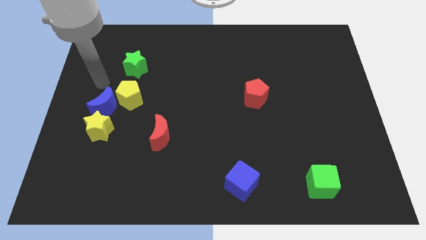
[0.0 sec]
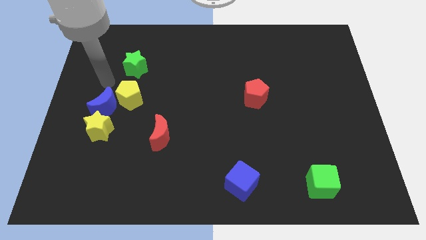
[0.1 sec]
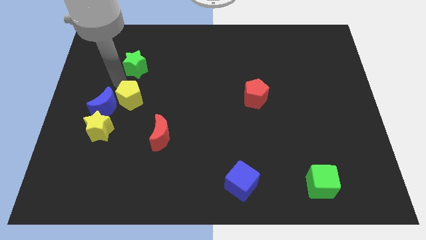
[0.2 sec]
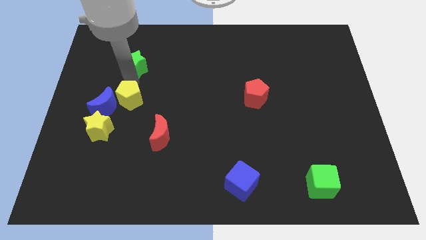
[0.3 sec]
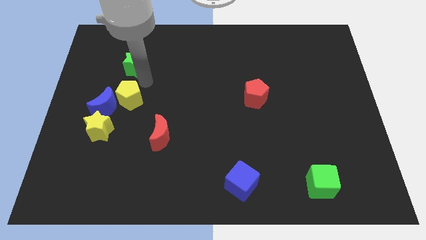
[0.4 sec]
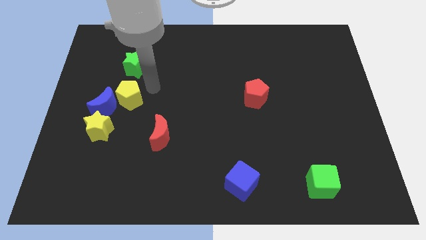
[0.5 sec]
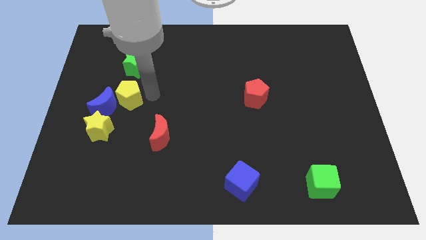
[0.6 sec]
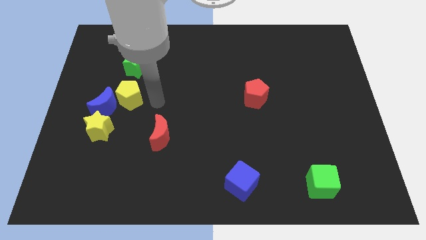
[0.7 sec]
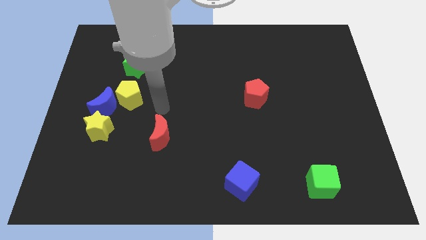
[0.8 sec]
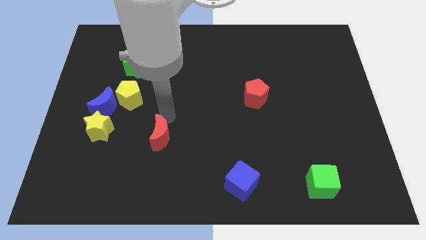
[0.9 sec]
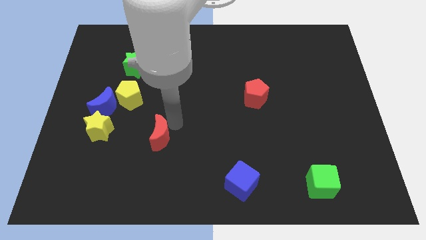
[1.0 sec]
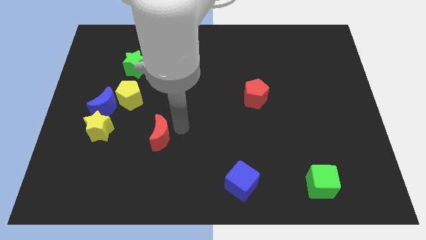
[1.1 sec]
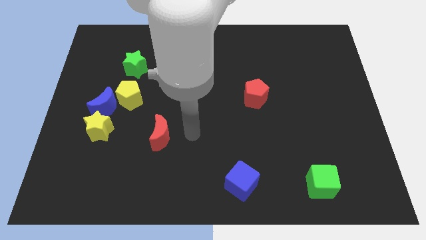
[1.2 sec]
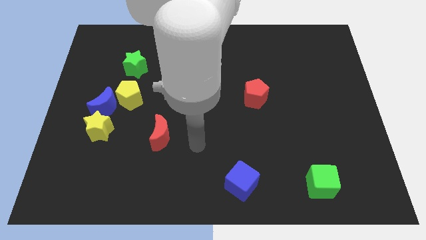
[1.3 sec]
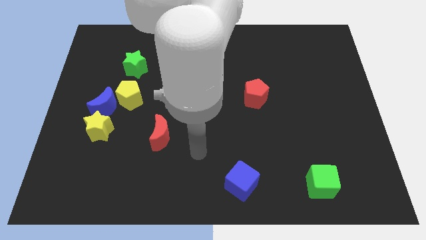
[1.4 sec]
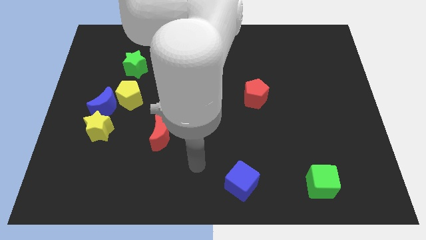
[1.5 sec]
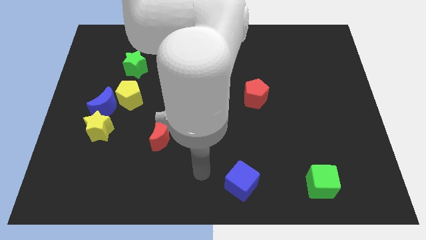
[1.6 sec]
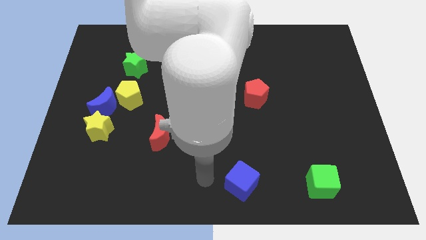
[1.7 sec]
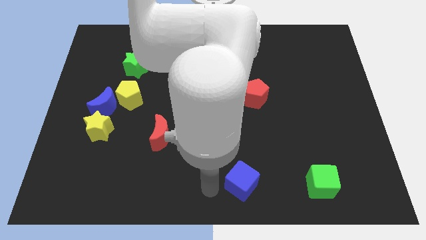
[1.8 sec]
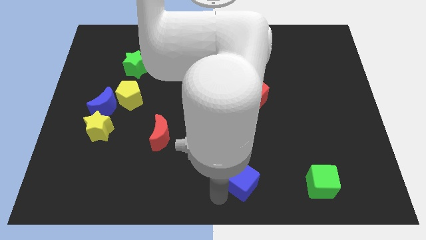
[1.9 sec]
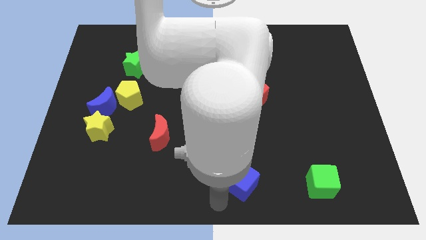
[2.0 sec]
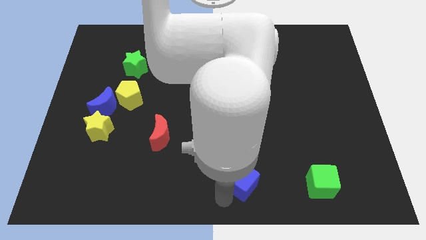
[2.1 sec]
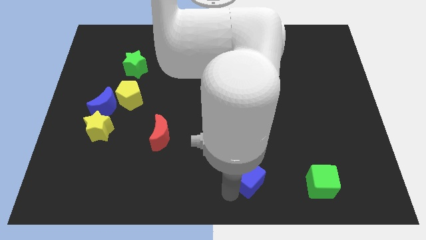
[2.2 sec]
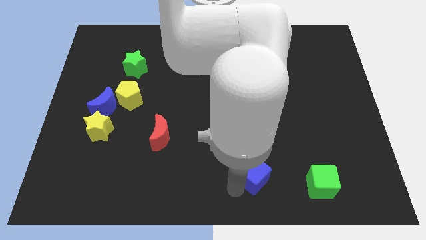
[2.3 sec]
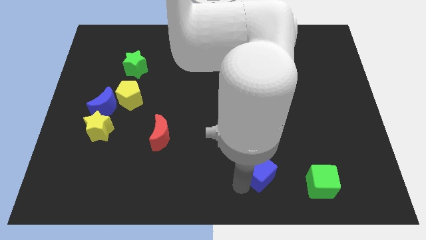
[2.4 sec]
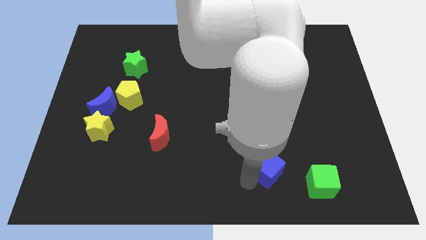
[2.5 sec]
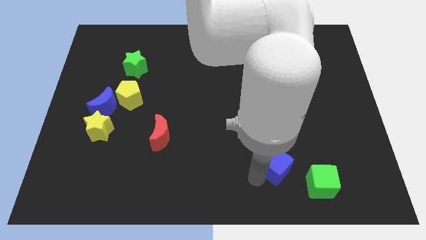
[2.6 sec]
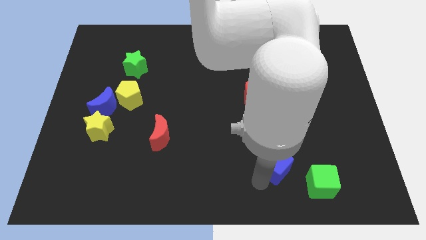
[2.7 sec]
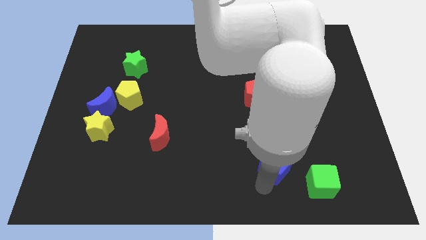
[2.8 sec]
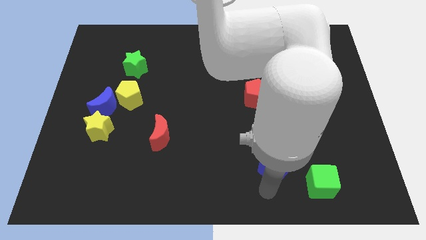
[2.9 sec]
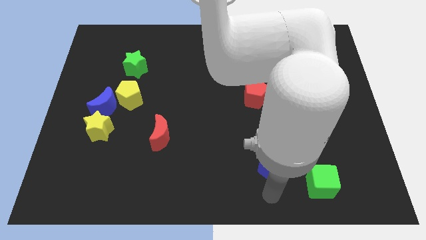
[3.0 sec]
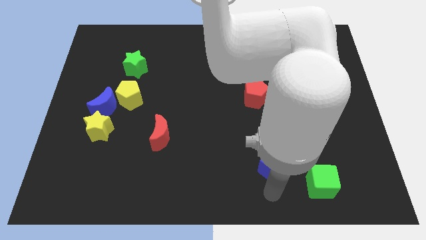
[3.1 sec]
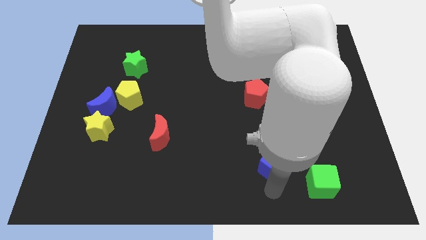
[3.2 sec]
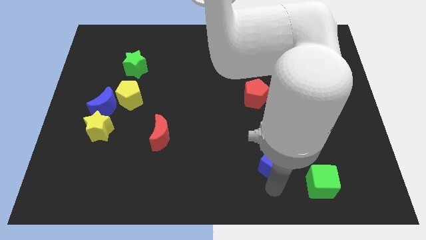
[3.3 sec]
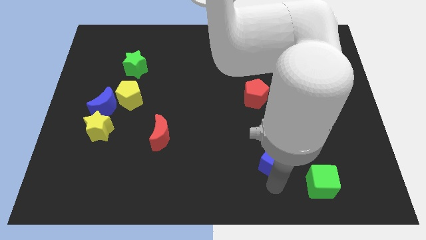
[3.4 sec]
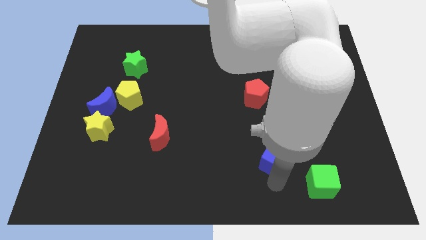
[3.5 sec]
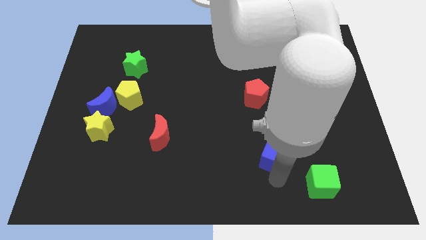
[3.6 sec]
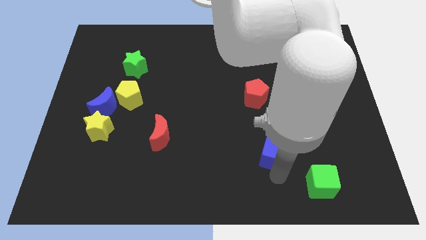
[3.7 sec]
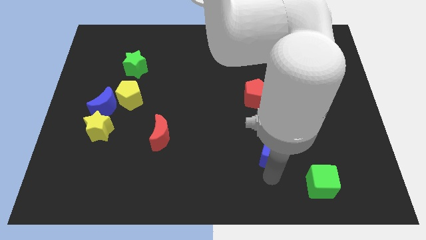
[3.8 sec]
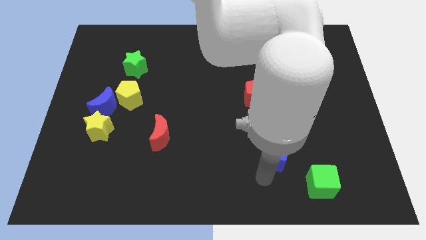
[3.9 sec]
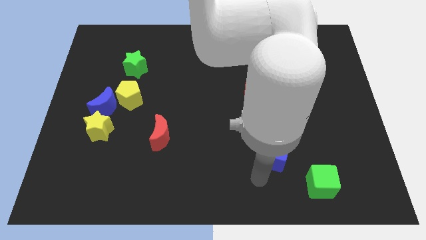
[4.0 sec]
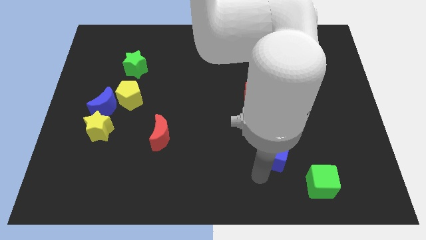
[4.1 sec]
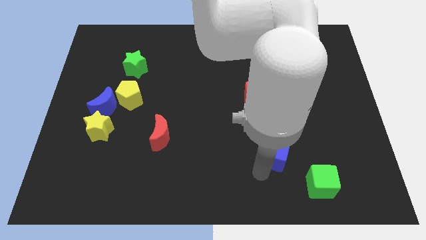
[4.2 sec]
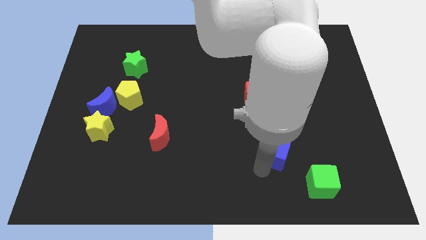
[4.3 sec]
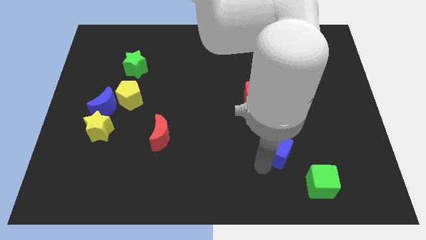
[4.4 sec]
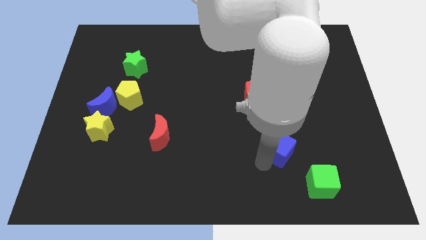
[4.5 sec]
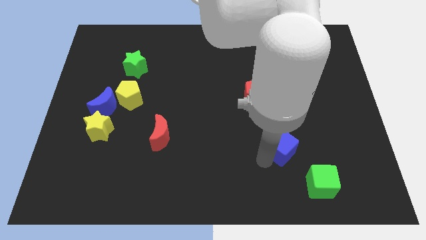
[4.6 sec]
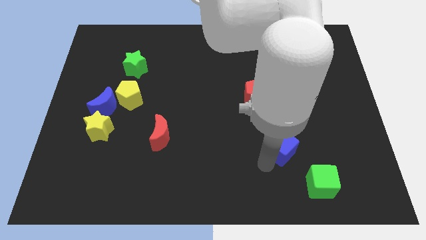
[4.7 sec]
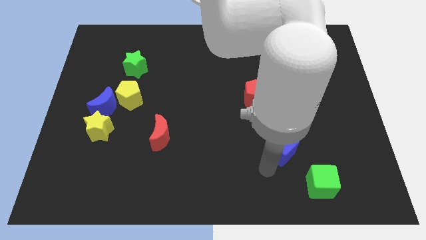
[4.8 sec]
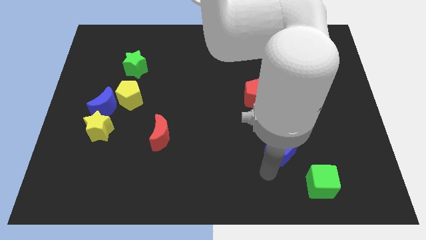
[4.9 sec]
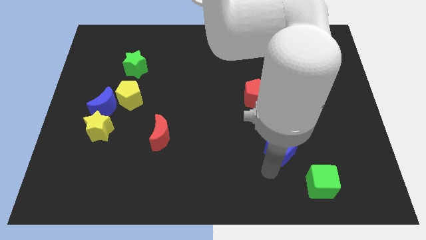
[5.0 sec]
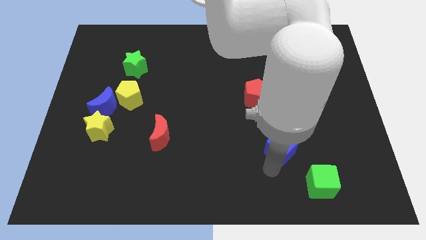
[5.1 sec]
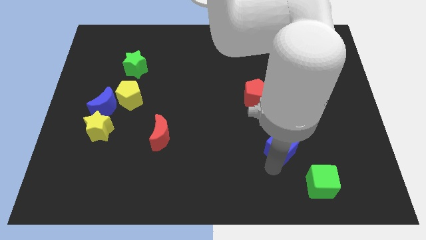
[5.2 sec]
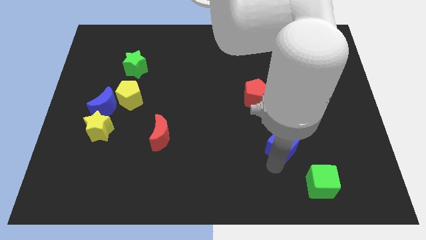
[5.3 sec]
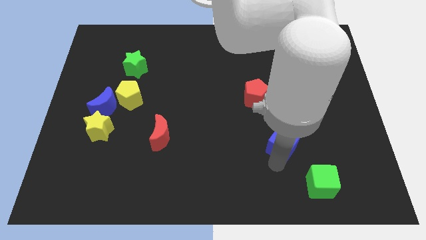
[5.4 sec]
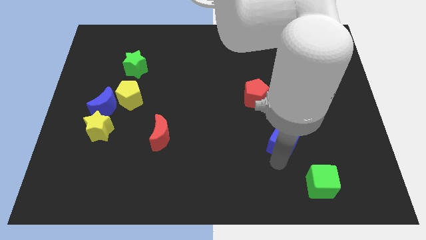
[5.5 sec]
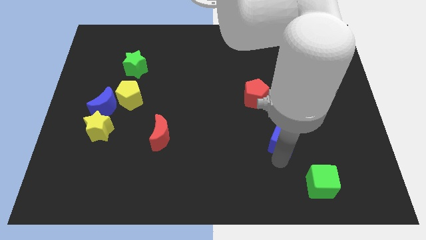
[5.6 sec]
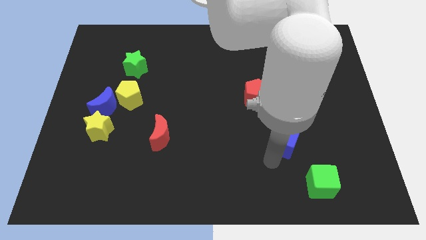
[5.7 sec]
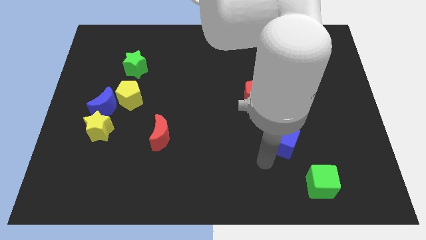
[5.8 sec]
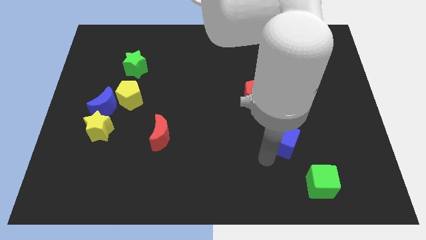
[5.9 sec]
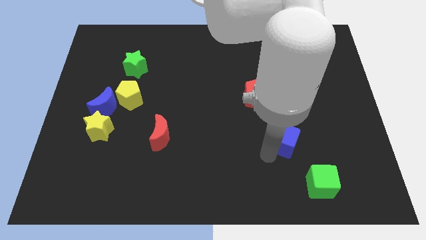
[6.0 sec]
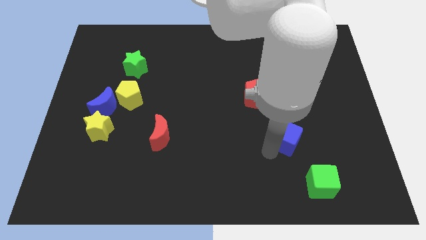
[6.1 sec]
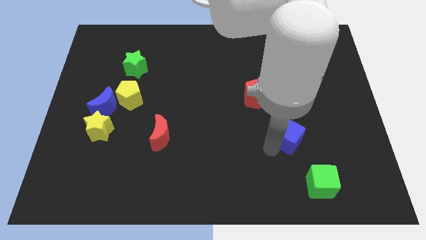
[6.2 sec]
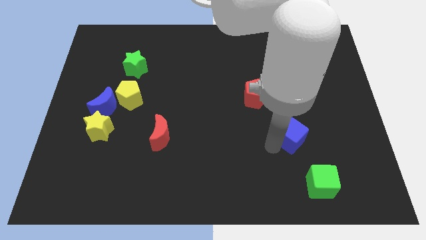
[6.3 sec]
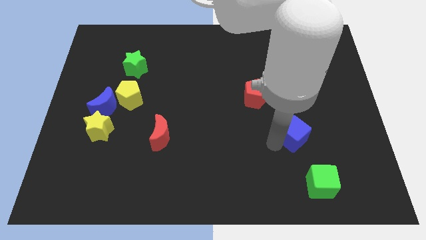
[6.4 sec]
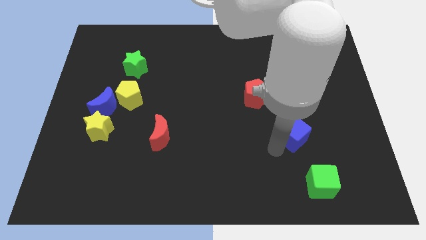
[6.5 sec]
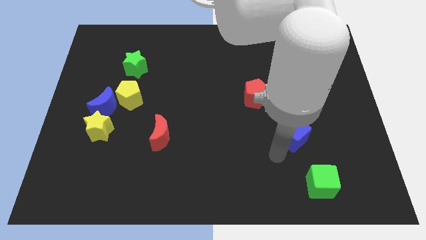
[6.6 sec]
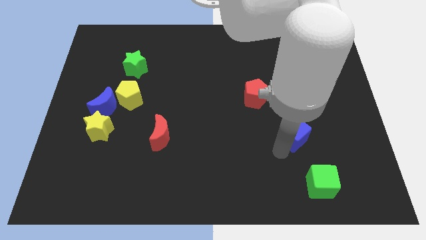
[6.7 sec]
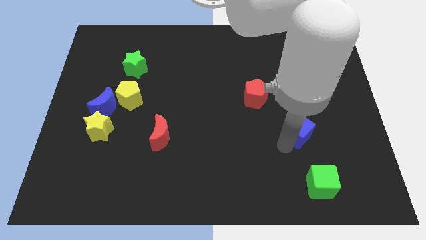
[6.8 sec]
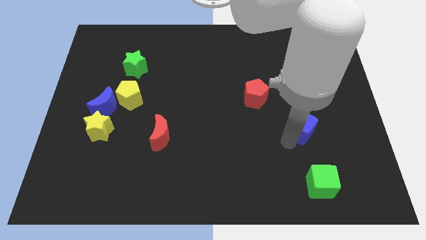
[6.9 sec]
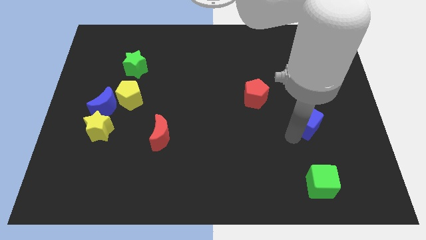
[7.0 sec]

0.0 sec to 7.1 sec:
push the blue cube diagonally up and to the right

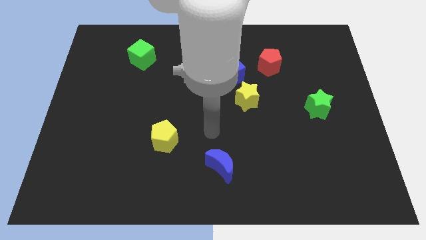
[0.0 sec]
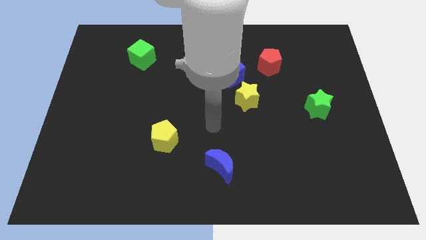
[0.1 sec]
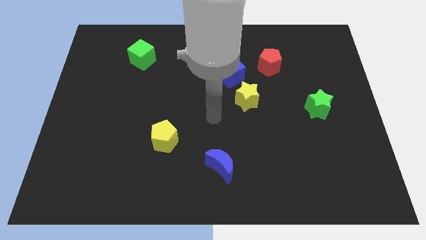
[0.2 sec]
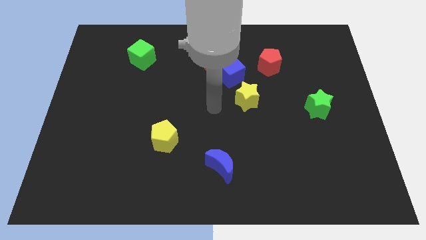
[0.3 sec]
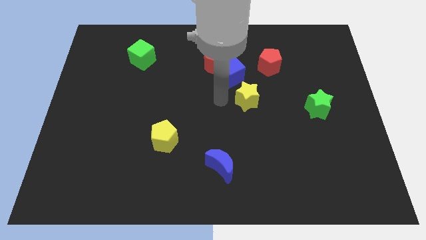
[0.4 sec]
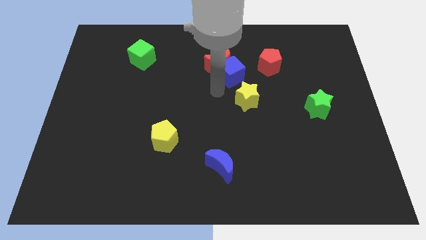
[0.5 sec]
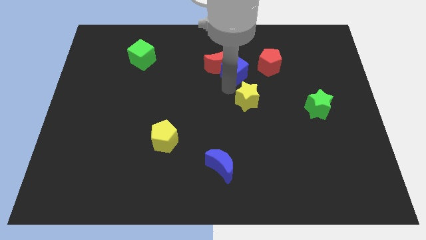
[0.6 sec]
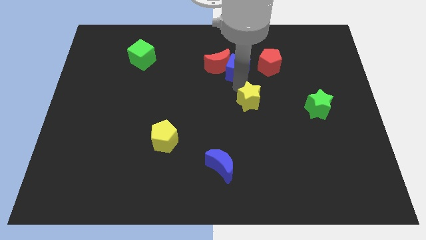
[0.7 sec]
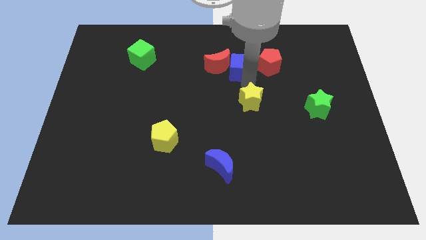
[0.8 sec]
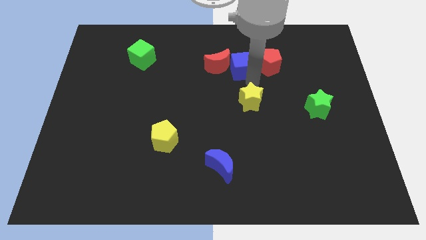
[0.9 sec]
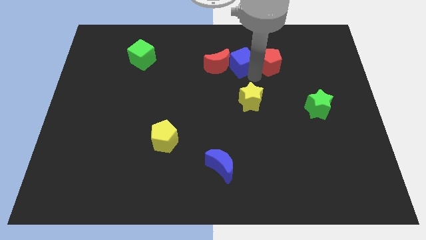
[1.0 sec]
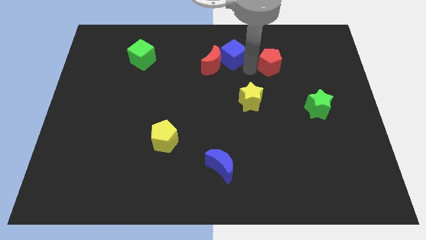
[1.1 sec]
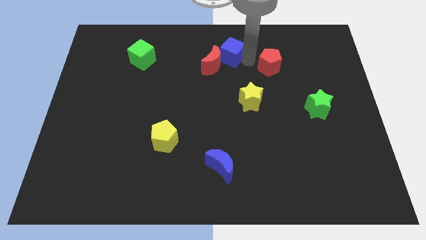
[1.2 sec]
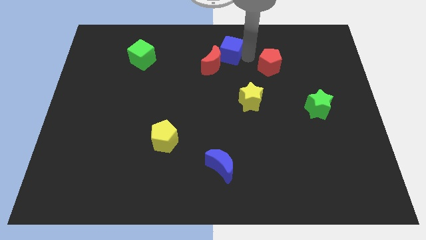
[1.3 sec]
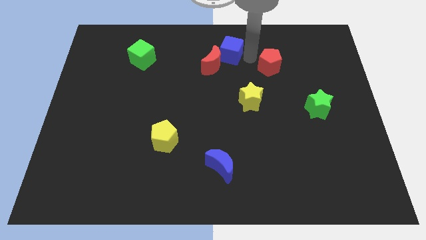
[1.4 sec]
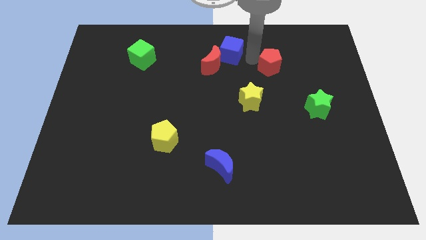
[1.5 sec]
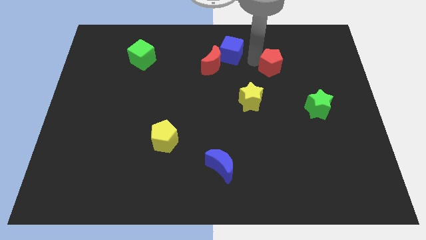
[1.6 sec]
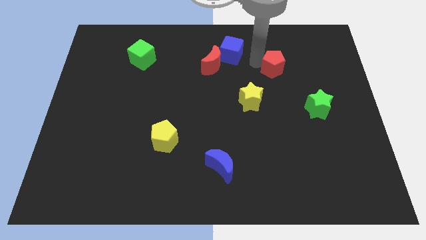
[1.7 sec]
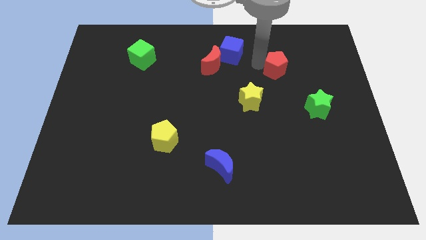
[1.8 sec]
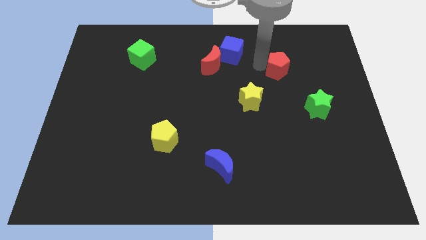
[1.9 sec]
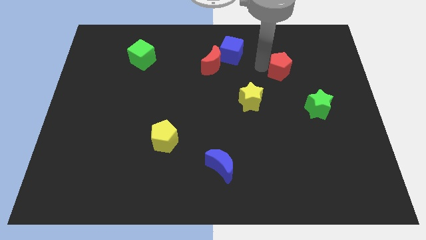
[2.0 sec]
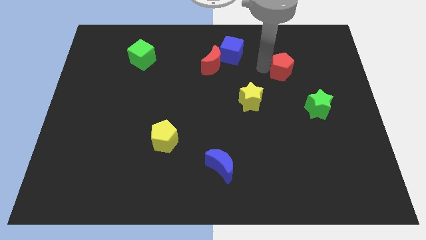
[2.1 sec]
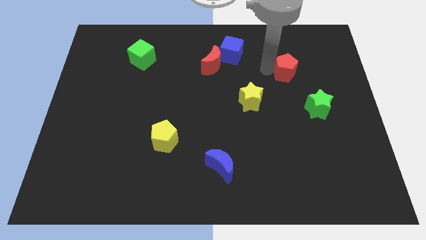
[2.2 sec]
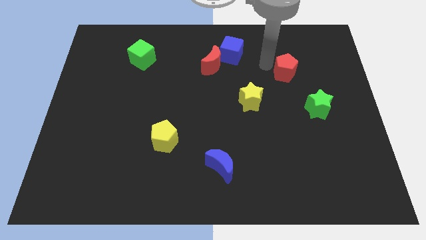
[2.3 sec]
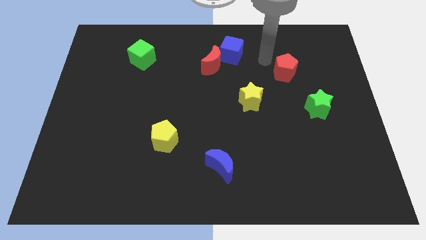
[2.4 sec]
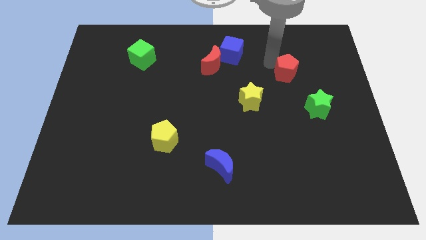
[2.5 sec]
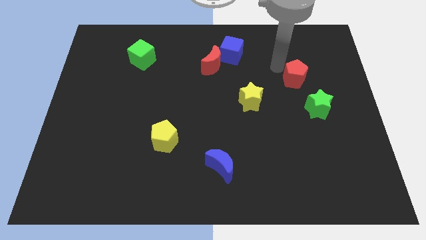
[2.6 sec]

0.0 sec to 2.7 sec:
push the red pentagon a little downwards and right
